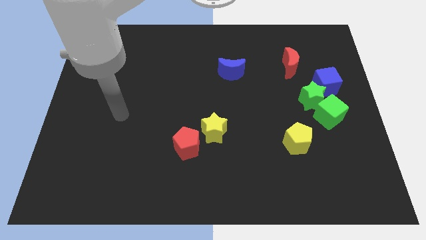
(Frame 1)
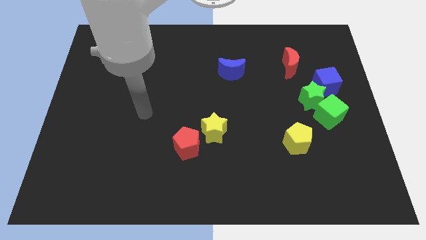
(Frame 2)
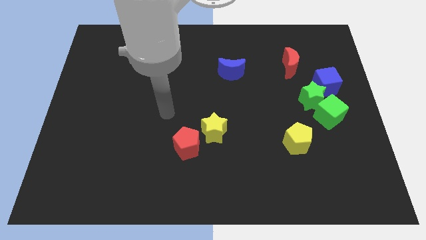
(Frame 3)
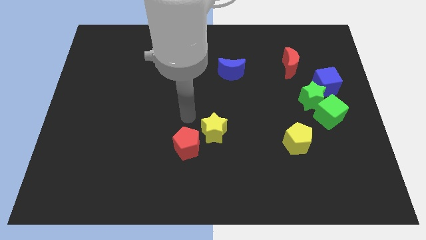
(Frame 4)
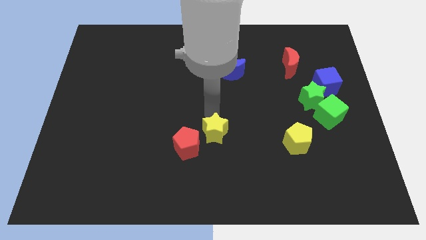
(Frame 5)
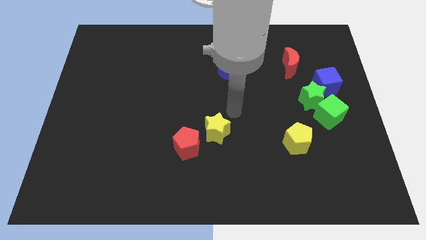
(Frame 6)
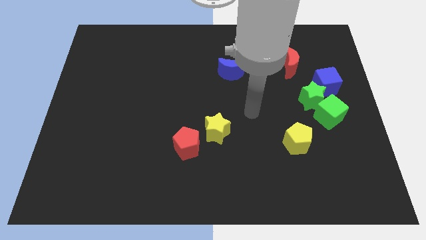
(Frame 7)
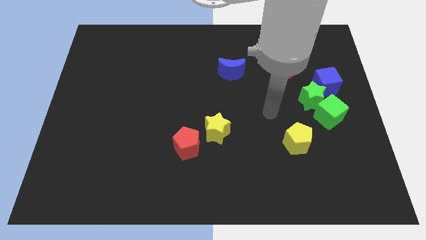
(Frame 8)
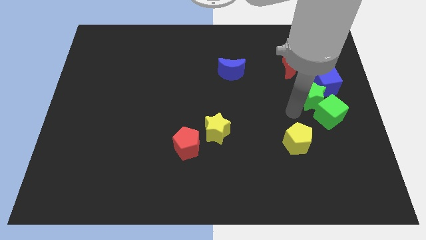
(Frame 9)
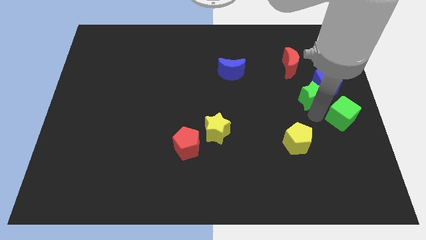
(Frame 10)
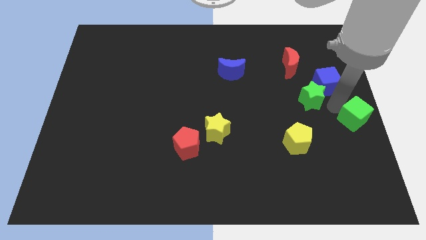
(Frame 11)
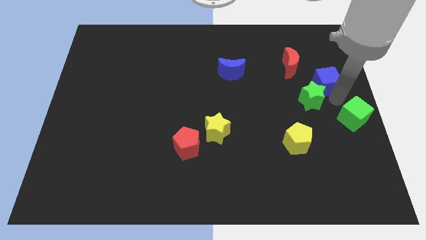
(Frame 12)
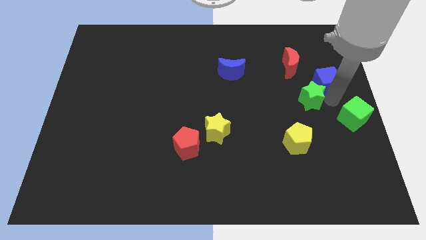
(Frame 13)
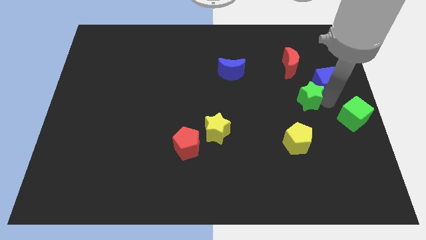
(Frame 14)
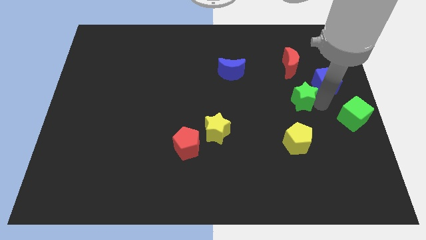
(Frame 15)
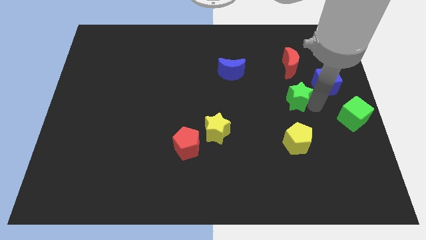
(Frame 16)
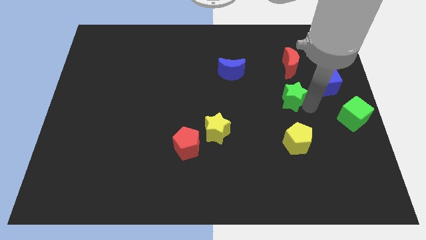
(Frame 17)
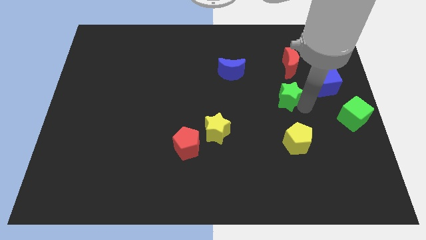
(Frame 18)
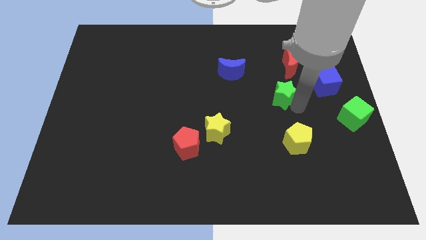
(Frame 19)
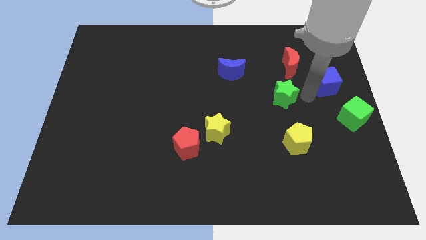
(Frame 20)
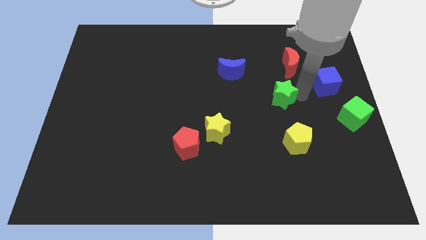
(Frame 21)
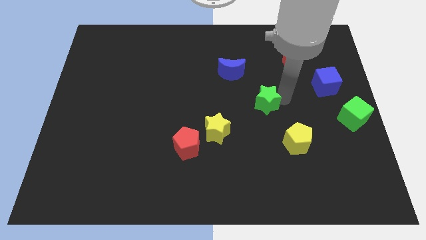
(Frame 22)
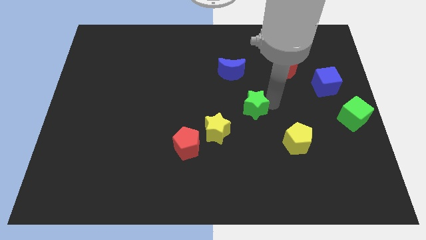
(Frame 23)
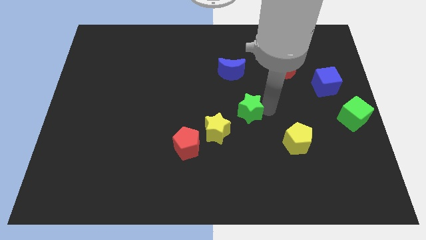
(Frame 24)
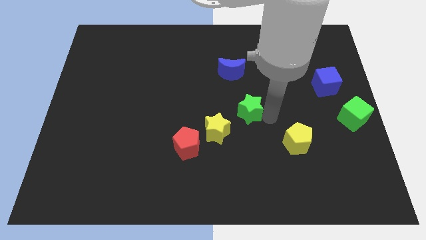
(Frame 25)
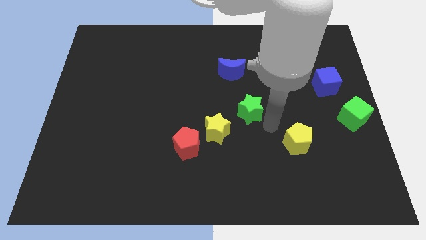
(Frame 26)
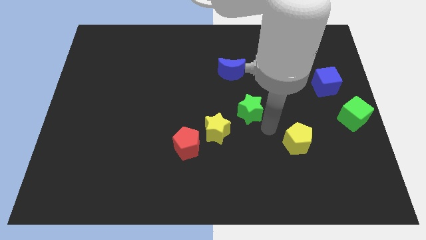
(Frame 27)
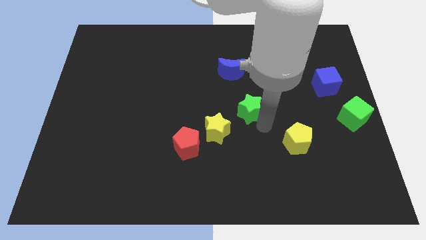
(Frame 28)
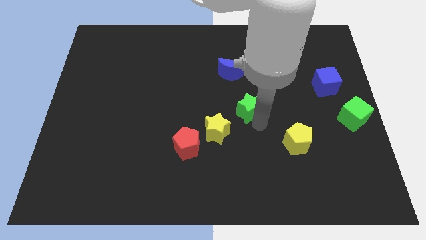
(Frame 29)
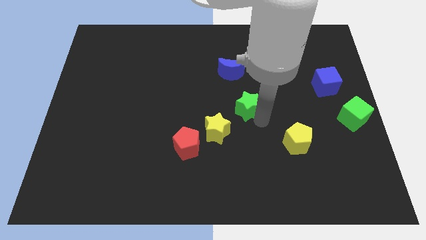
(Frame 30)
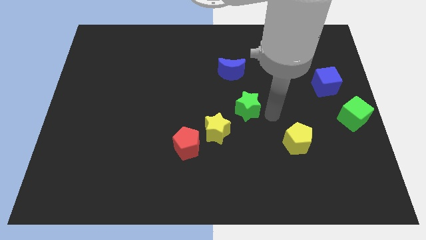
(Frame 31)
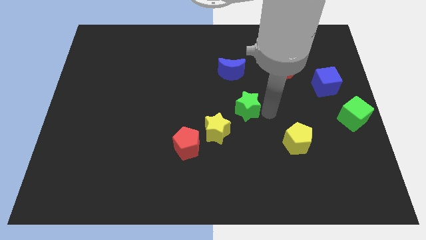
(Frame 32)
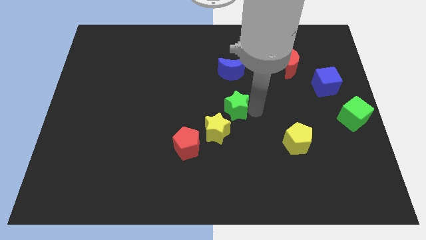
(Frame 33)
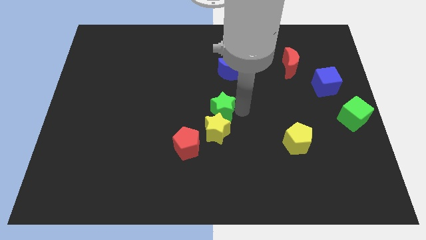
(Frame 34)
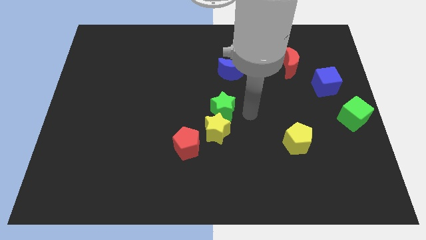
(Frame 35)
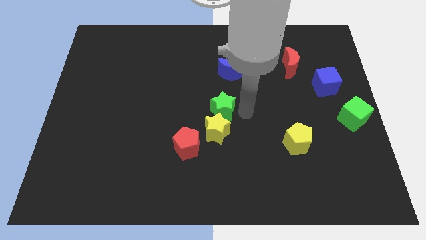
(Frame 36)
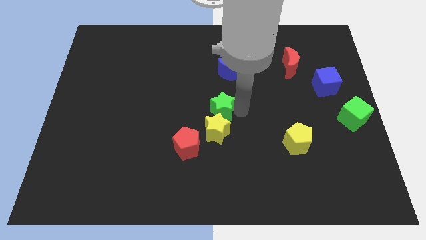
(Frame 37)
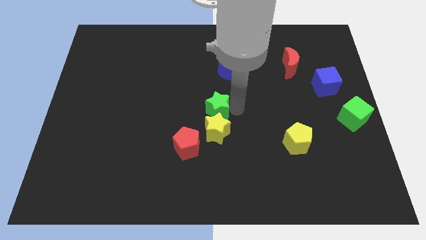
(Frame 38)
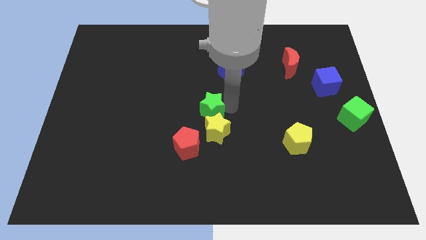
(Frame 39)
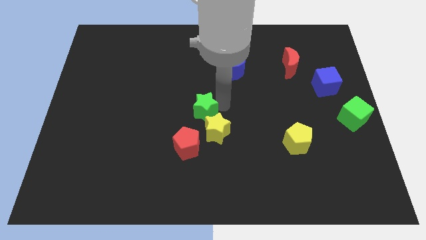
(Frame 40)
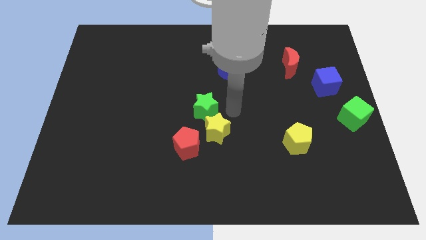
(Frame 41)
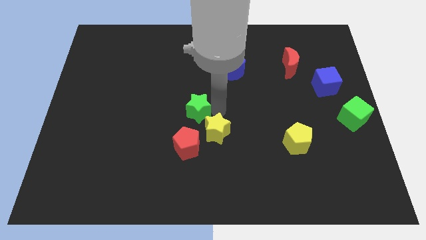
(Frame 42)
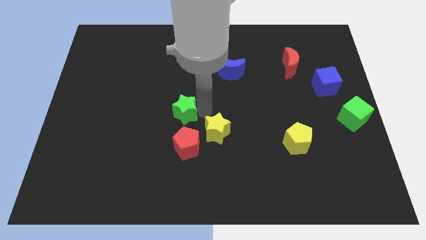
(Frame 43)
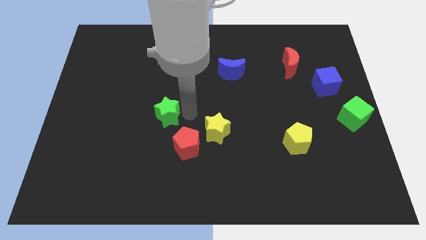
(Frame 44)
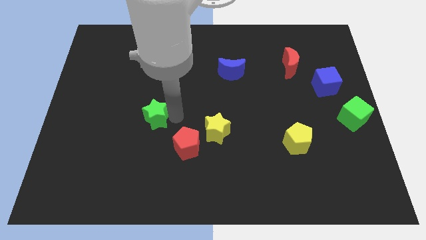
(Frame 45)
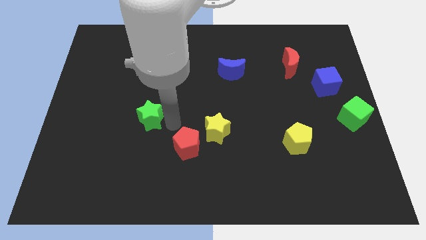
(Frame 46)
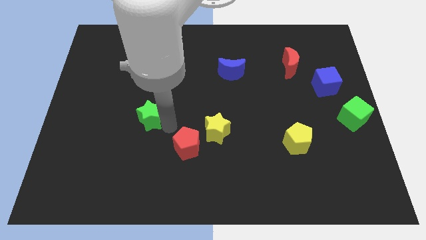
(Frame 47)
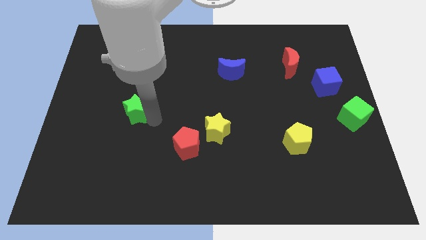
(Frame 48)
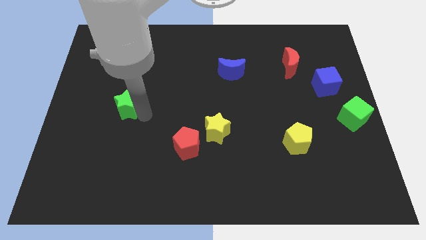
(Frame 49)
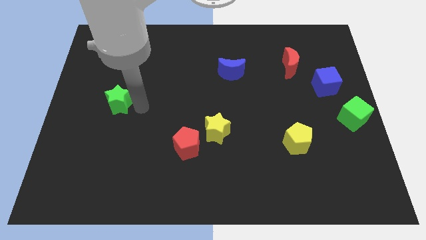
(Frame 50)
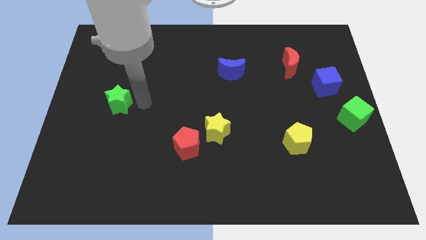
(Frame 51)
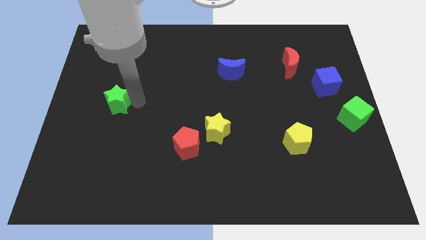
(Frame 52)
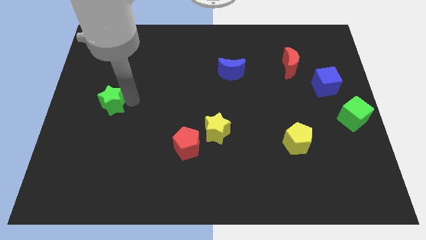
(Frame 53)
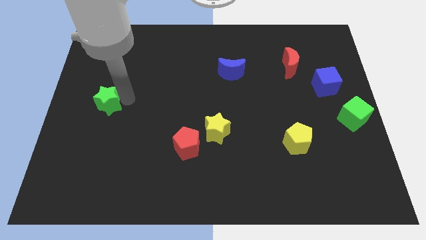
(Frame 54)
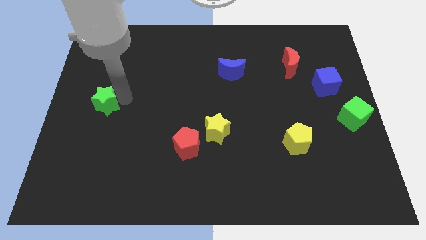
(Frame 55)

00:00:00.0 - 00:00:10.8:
push the green star to the center left

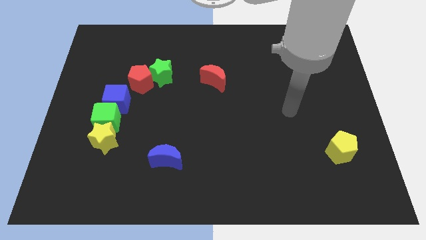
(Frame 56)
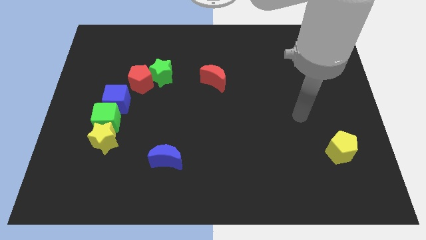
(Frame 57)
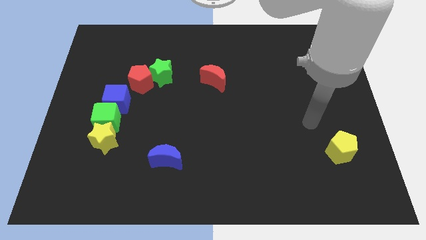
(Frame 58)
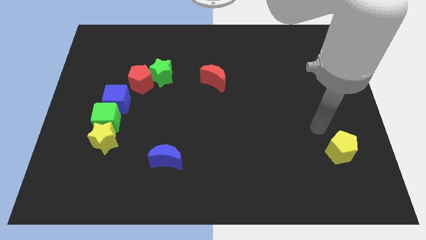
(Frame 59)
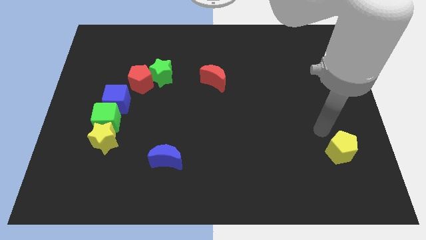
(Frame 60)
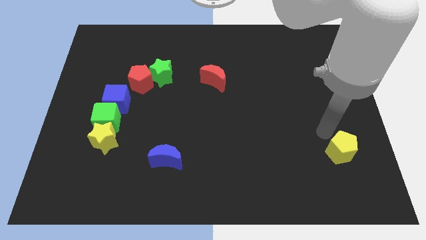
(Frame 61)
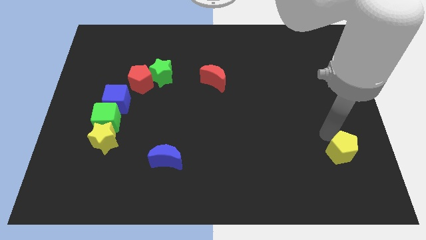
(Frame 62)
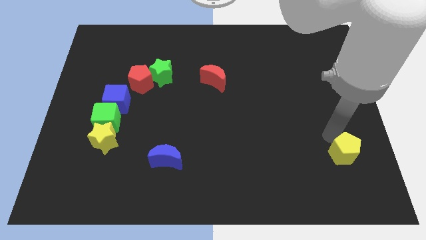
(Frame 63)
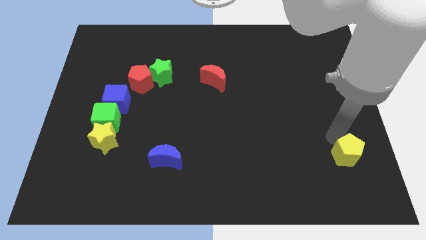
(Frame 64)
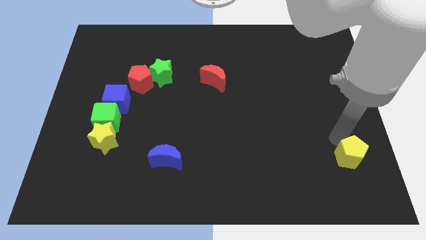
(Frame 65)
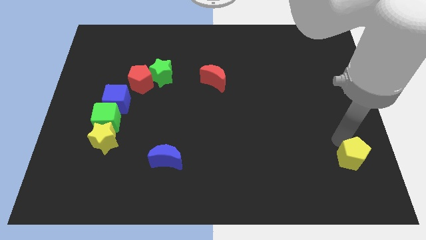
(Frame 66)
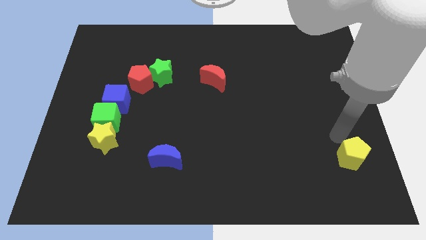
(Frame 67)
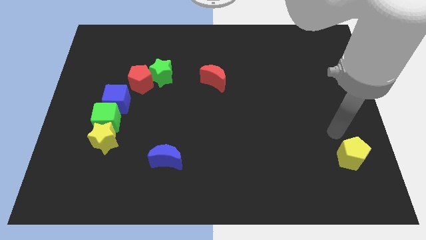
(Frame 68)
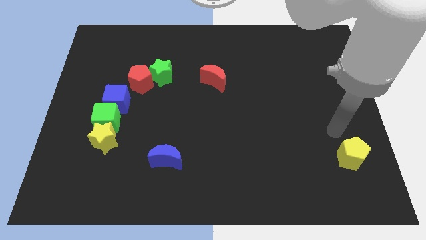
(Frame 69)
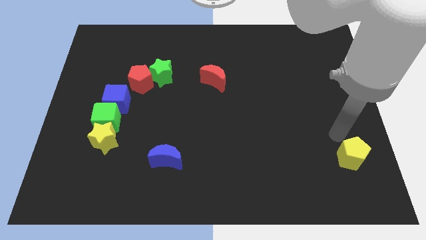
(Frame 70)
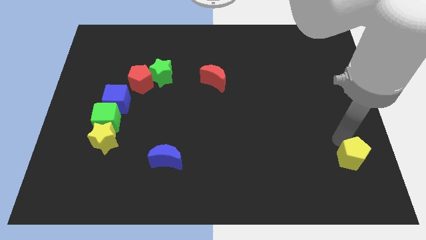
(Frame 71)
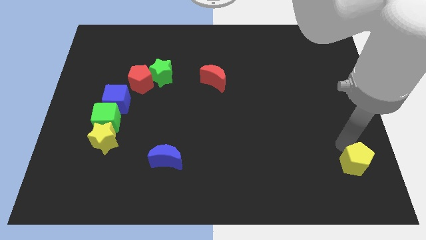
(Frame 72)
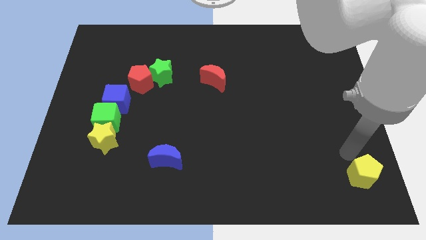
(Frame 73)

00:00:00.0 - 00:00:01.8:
push the yellow pentagon to the bottom right
